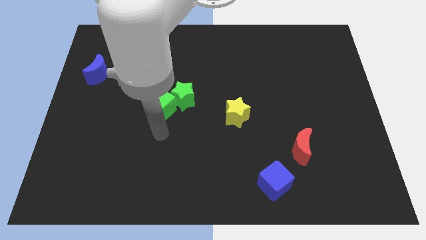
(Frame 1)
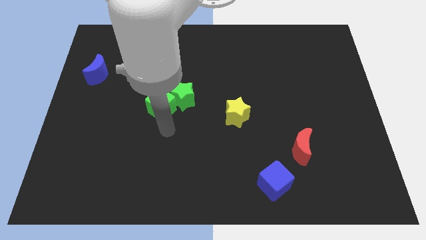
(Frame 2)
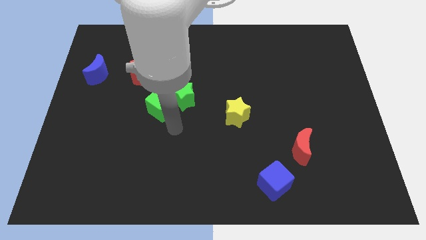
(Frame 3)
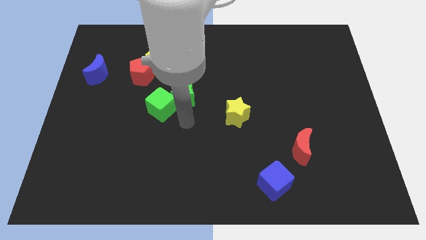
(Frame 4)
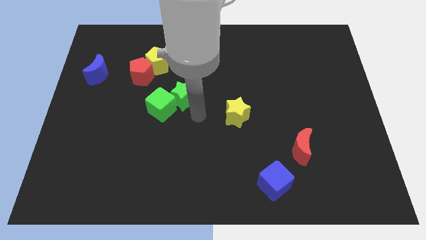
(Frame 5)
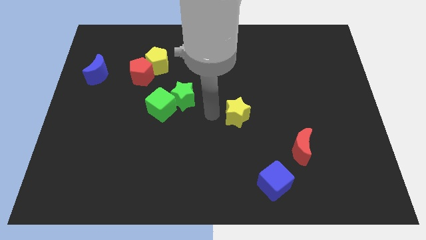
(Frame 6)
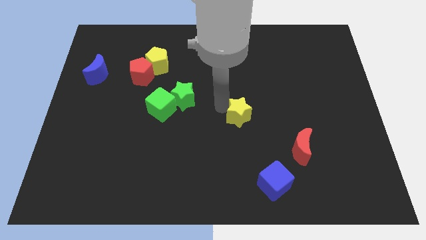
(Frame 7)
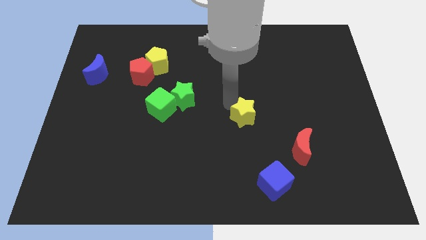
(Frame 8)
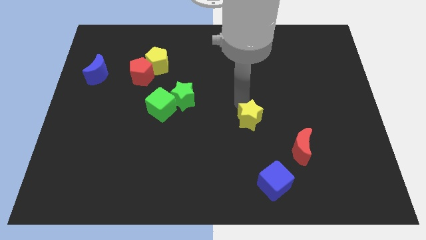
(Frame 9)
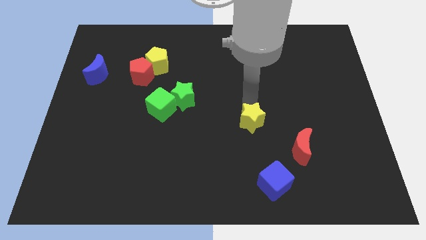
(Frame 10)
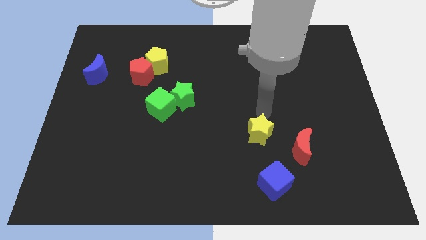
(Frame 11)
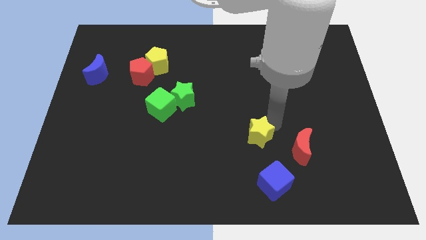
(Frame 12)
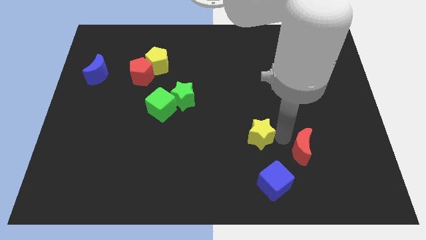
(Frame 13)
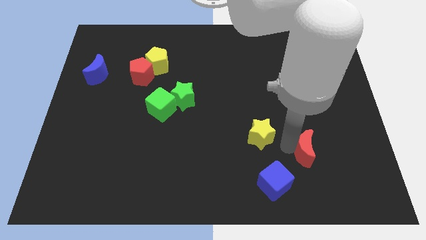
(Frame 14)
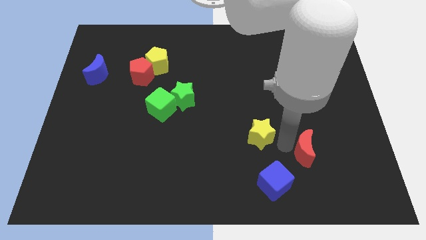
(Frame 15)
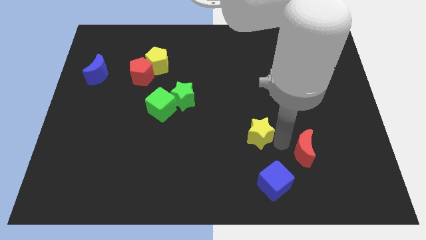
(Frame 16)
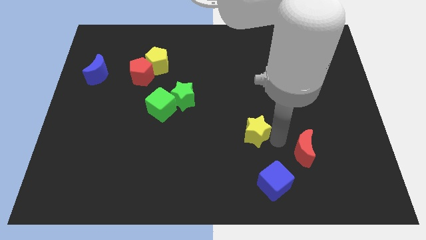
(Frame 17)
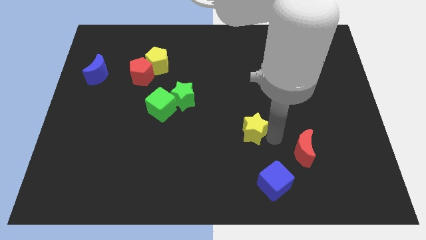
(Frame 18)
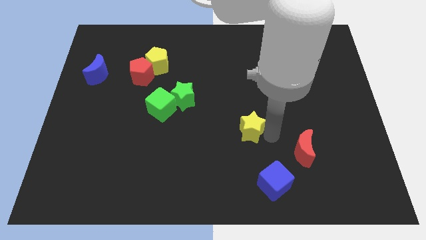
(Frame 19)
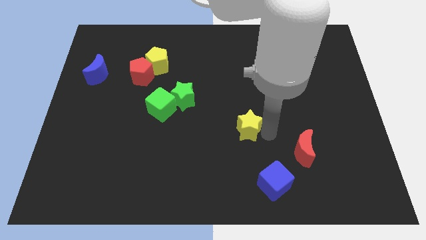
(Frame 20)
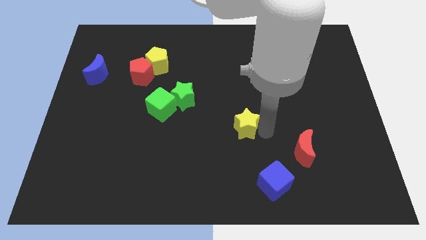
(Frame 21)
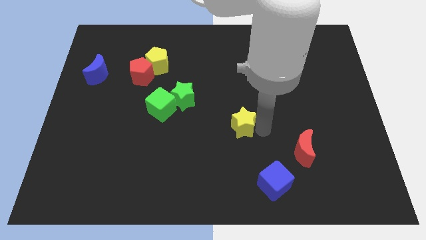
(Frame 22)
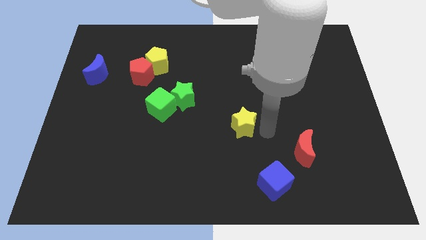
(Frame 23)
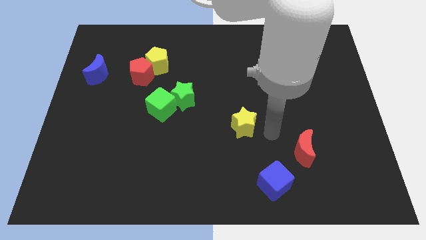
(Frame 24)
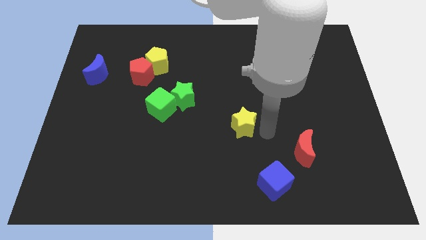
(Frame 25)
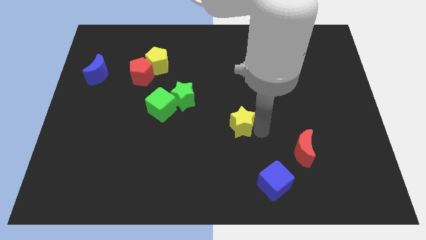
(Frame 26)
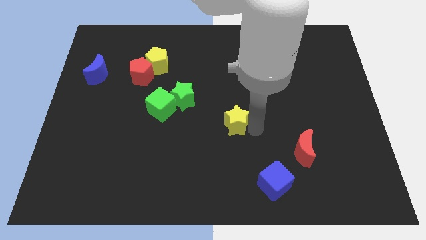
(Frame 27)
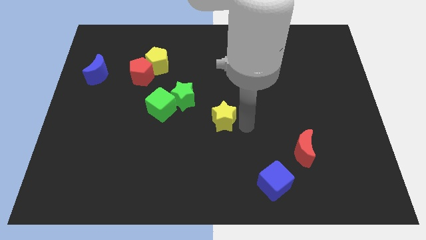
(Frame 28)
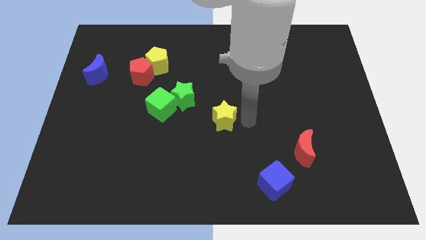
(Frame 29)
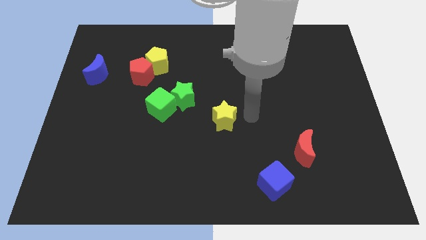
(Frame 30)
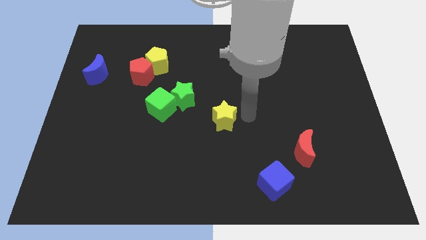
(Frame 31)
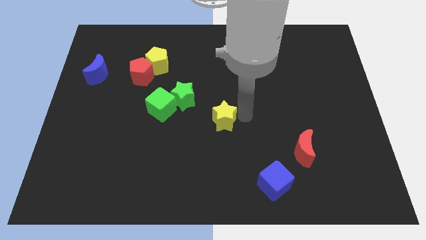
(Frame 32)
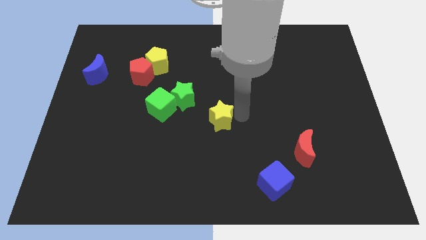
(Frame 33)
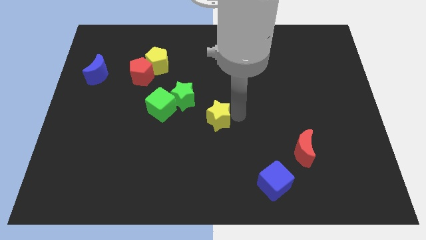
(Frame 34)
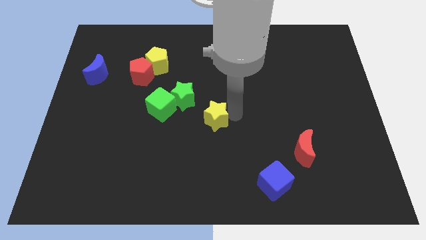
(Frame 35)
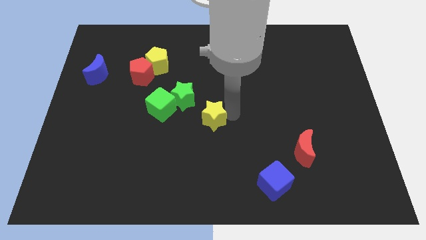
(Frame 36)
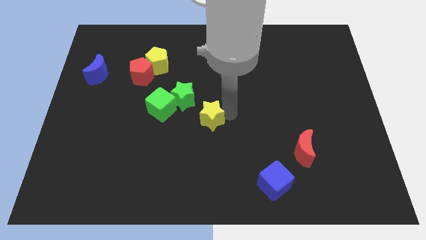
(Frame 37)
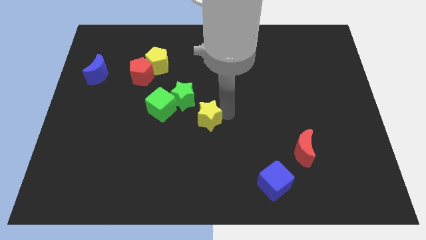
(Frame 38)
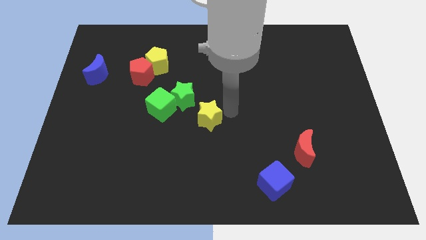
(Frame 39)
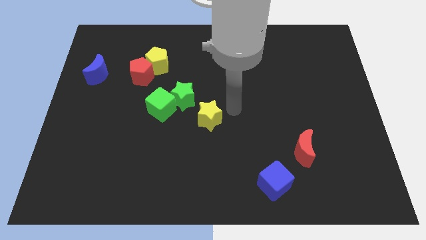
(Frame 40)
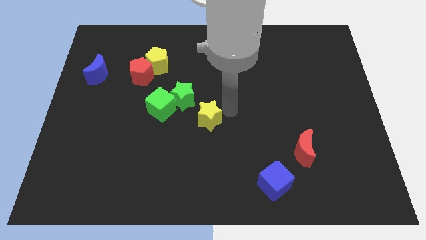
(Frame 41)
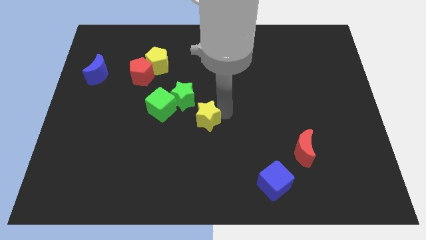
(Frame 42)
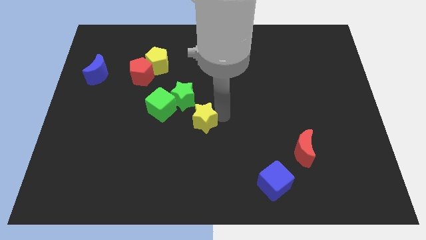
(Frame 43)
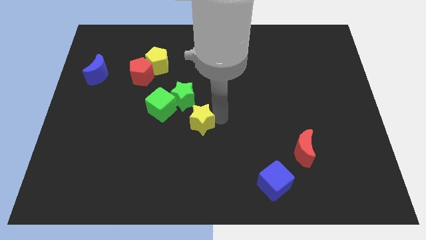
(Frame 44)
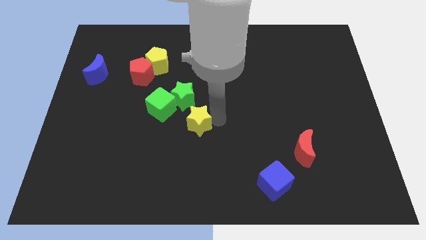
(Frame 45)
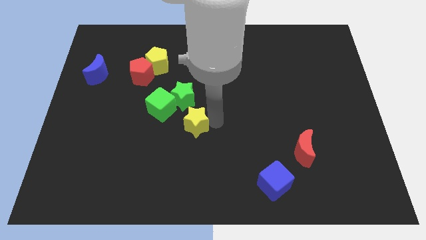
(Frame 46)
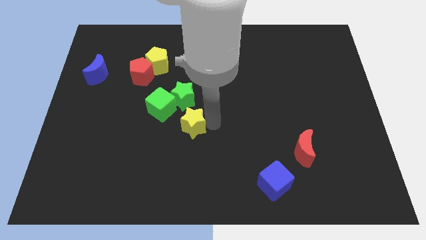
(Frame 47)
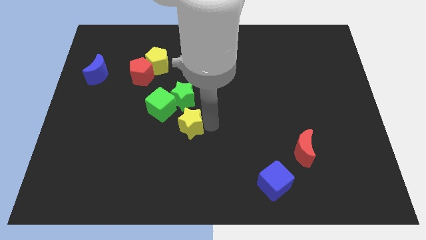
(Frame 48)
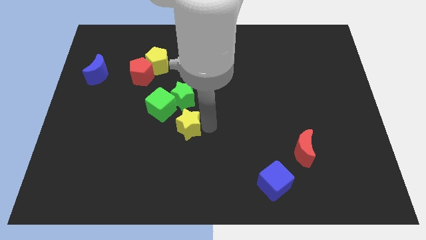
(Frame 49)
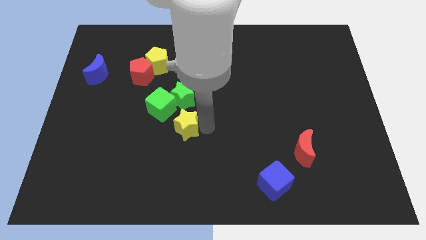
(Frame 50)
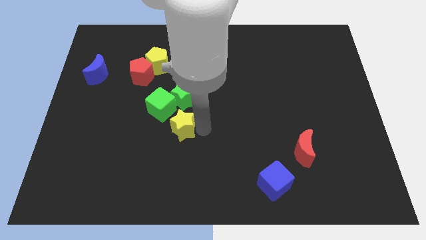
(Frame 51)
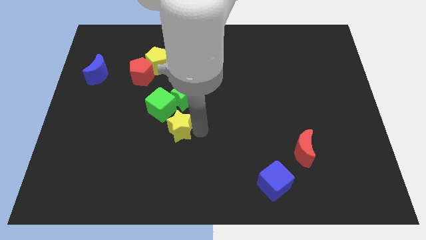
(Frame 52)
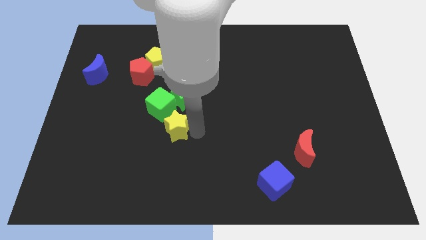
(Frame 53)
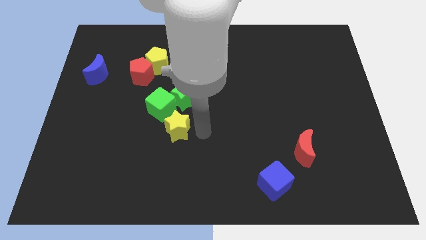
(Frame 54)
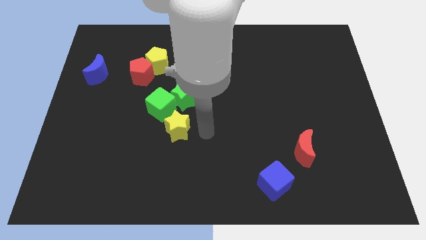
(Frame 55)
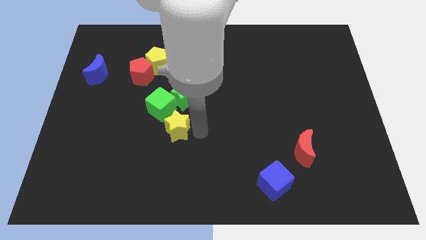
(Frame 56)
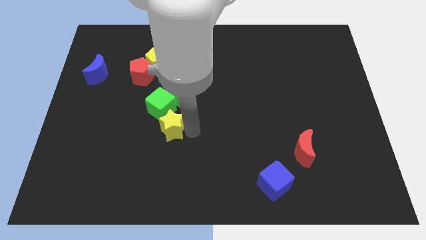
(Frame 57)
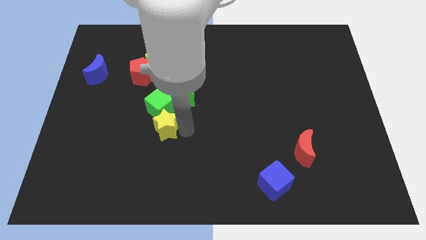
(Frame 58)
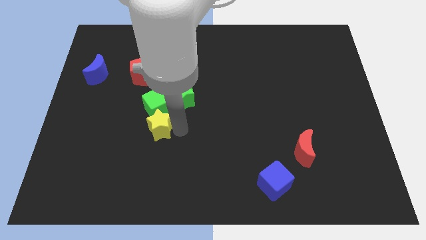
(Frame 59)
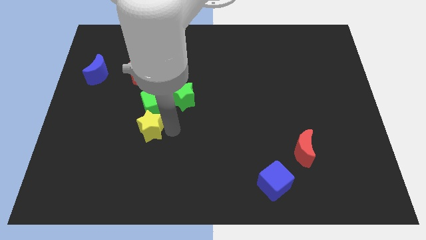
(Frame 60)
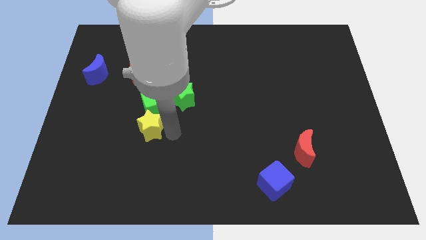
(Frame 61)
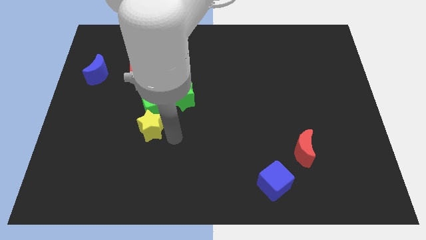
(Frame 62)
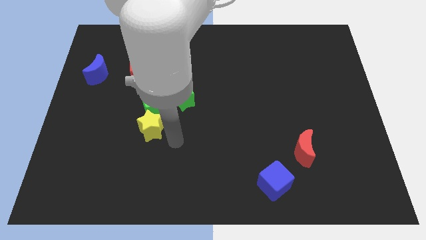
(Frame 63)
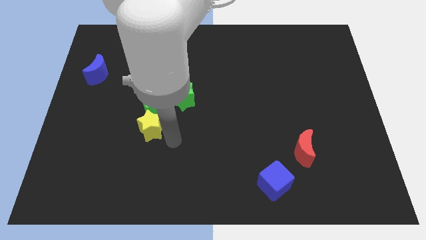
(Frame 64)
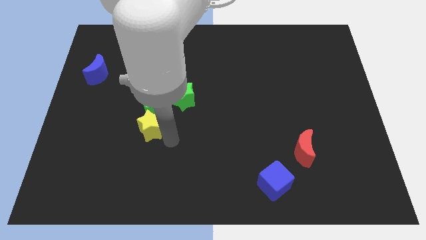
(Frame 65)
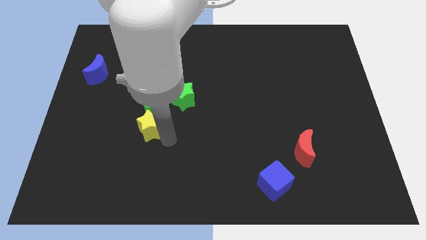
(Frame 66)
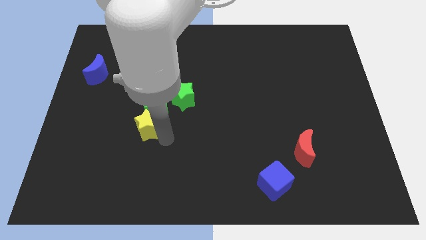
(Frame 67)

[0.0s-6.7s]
push the yellow star to the left

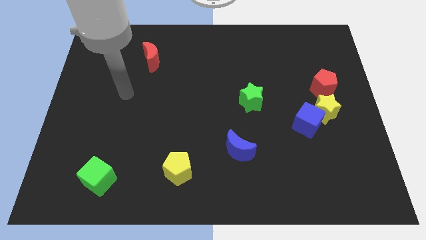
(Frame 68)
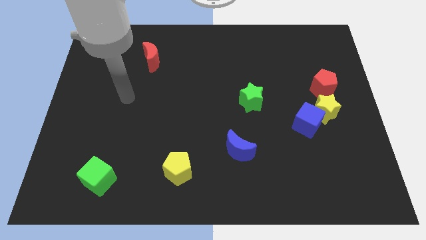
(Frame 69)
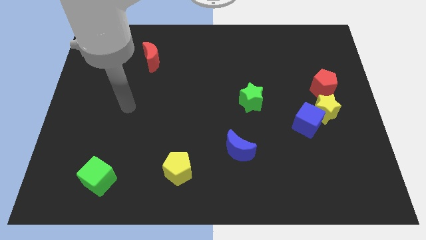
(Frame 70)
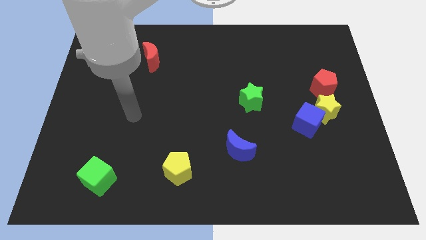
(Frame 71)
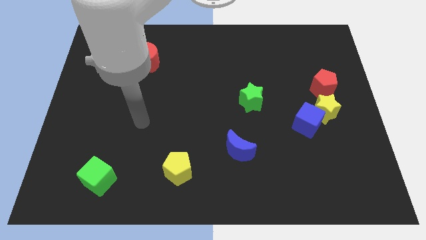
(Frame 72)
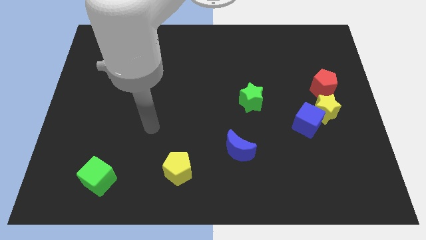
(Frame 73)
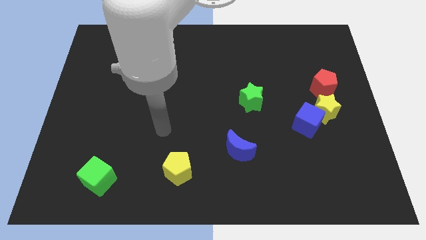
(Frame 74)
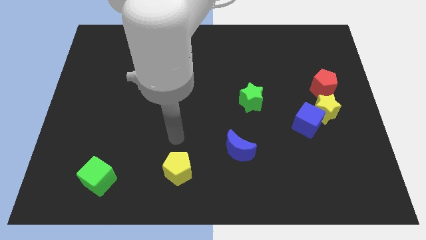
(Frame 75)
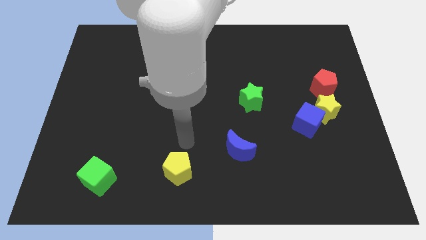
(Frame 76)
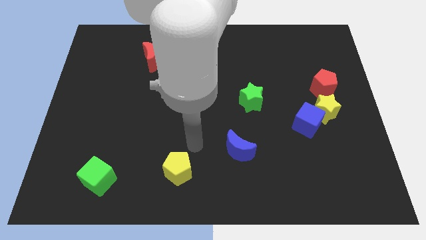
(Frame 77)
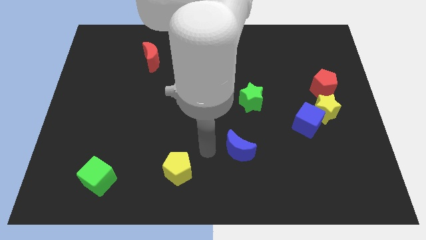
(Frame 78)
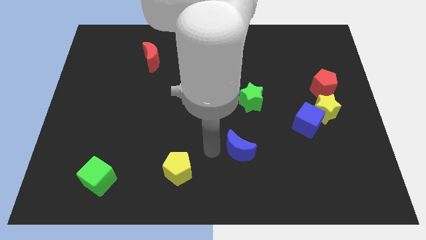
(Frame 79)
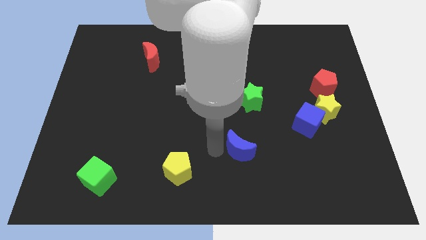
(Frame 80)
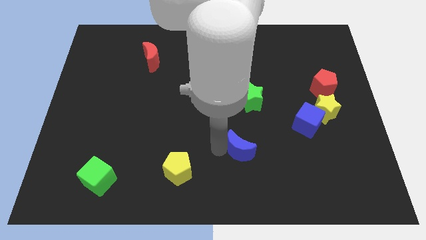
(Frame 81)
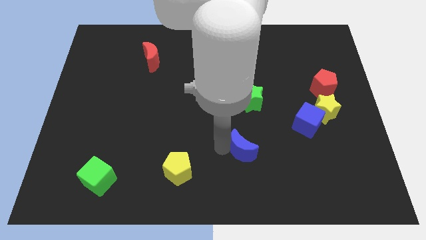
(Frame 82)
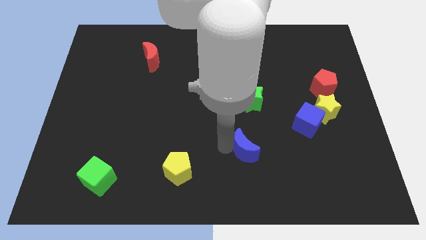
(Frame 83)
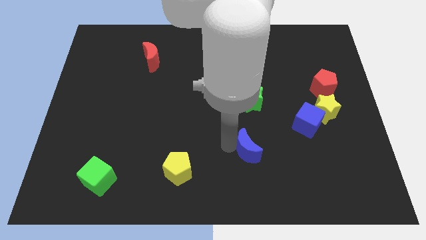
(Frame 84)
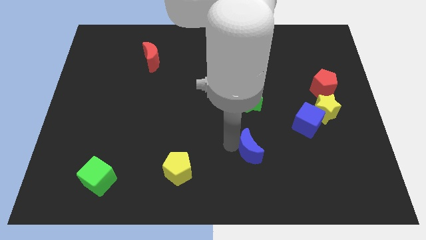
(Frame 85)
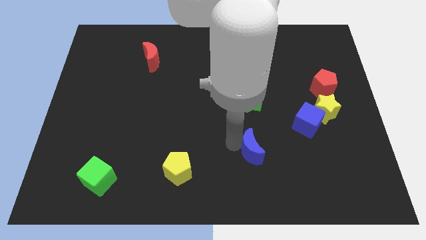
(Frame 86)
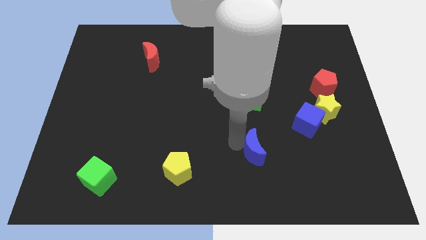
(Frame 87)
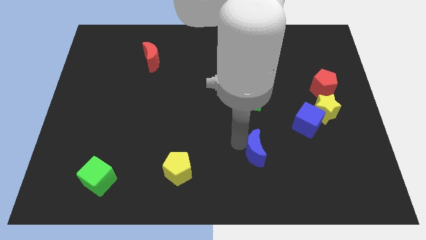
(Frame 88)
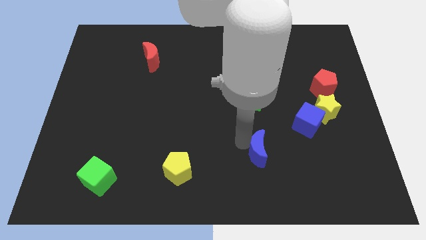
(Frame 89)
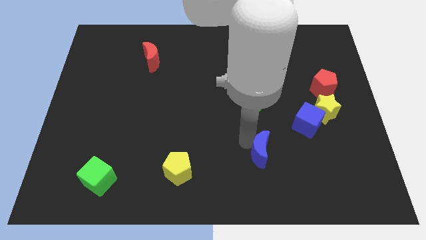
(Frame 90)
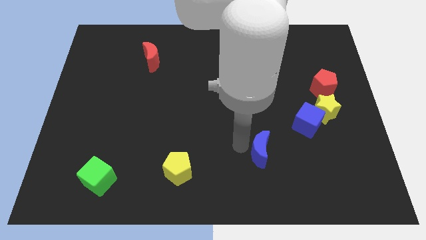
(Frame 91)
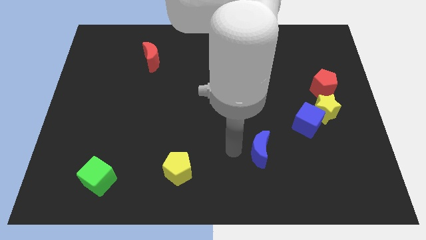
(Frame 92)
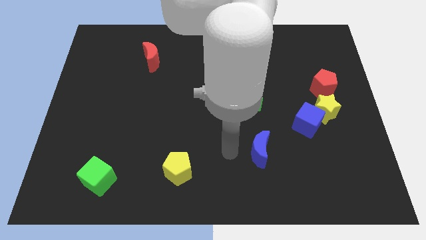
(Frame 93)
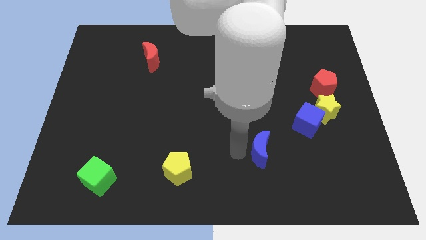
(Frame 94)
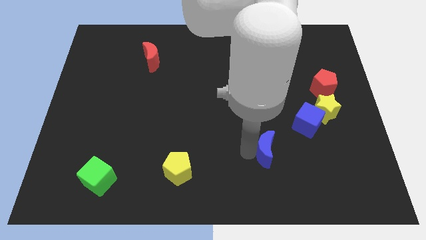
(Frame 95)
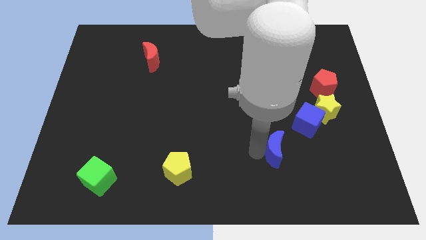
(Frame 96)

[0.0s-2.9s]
move the blue moon a little right
